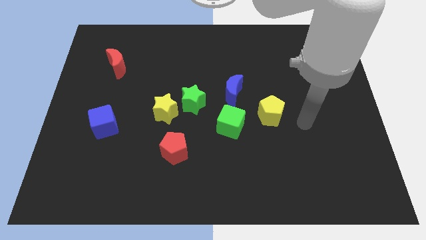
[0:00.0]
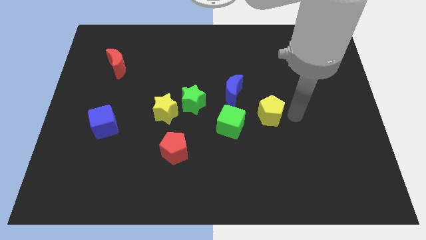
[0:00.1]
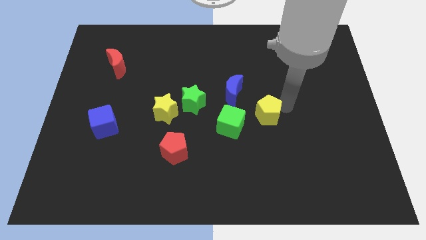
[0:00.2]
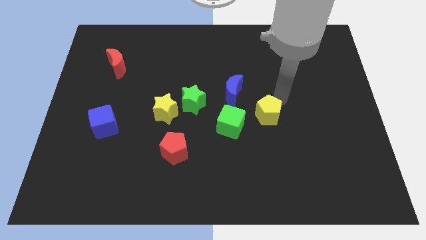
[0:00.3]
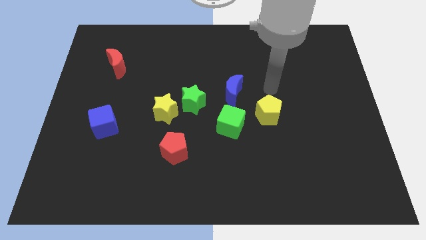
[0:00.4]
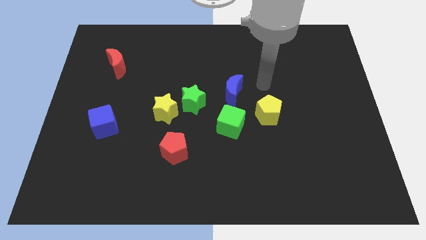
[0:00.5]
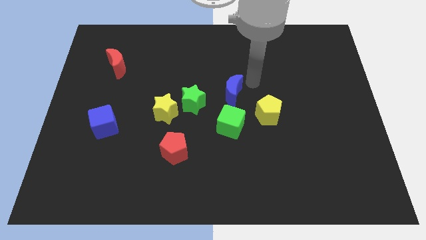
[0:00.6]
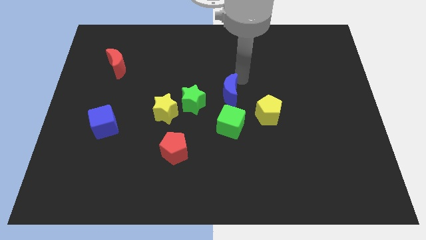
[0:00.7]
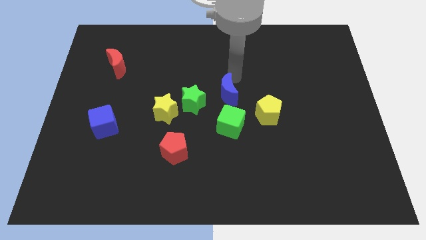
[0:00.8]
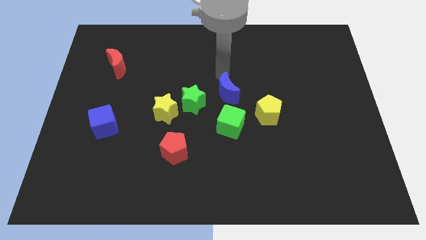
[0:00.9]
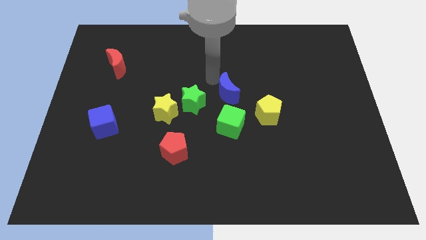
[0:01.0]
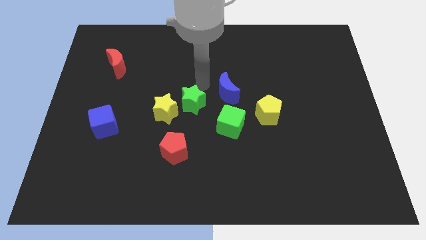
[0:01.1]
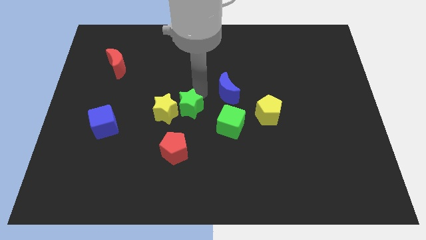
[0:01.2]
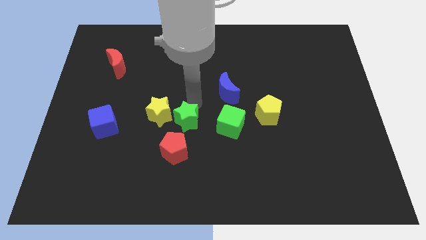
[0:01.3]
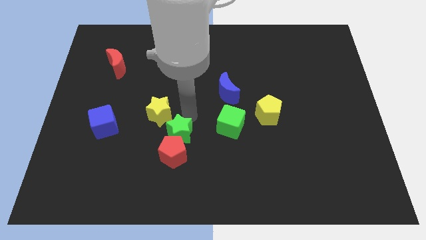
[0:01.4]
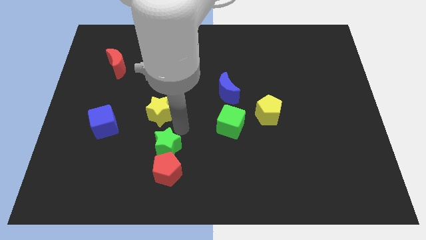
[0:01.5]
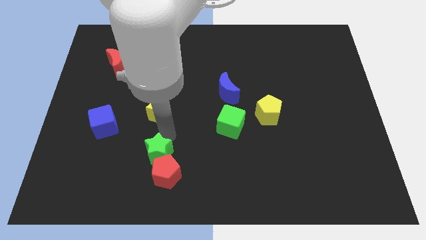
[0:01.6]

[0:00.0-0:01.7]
move the yellow star away from the green star

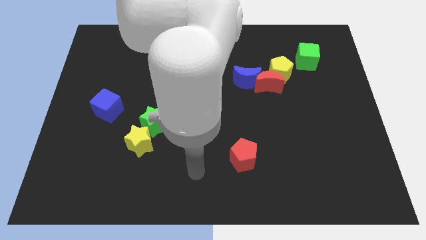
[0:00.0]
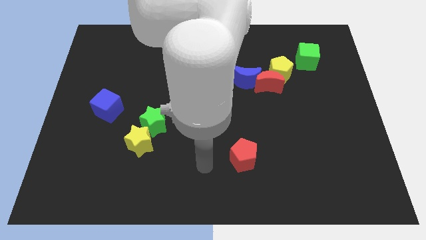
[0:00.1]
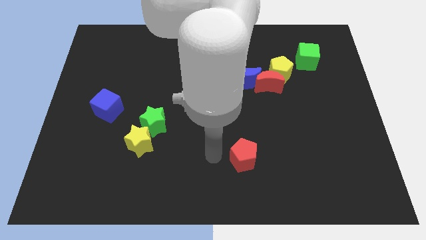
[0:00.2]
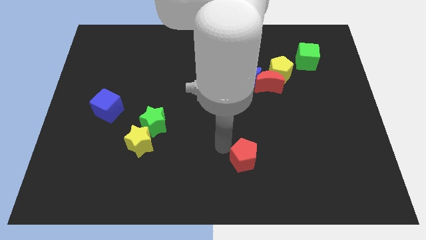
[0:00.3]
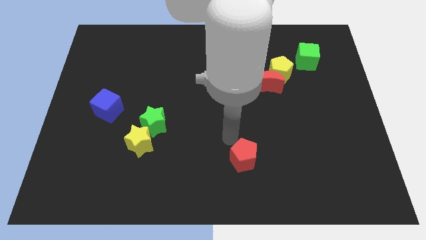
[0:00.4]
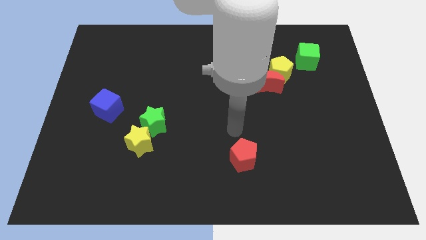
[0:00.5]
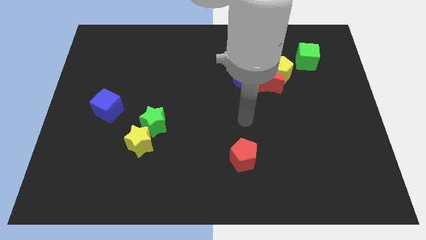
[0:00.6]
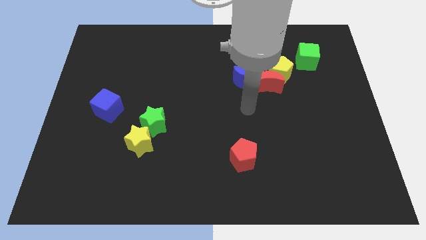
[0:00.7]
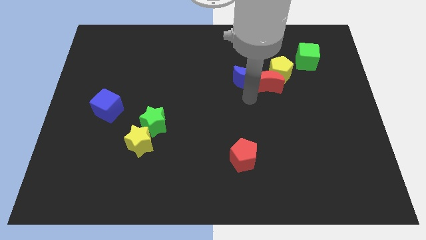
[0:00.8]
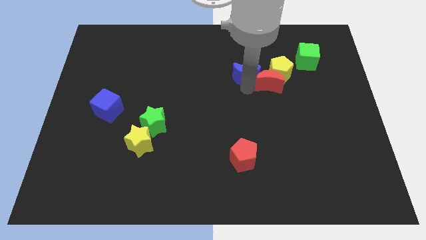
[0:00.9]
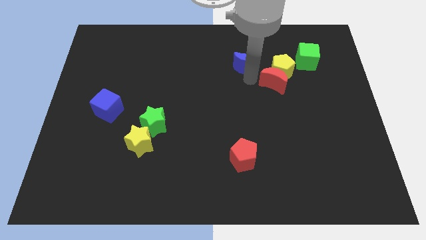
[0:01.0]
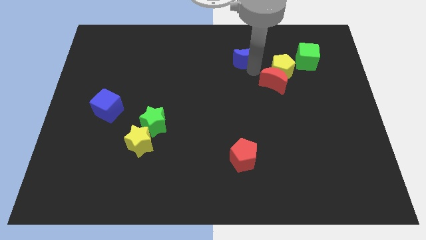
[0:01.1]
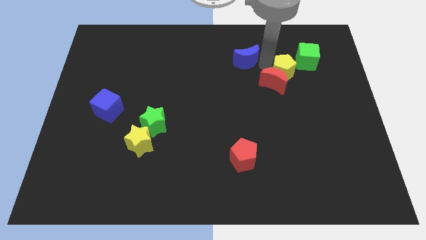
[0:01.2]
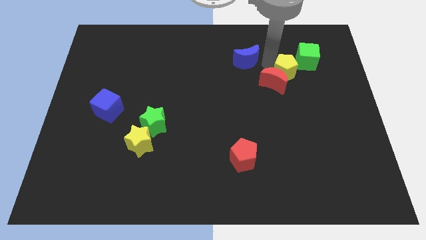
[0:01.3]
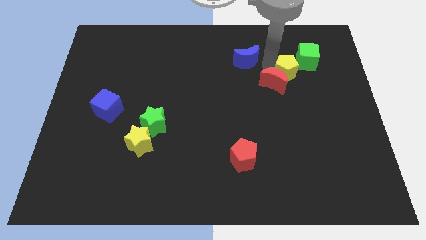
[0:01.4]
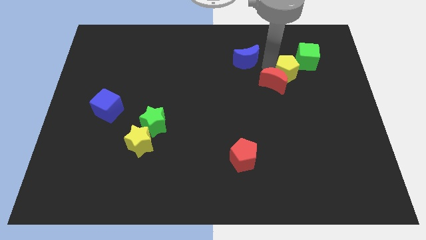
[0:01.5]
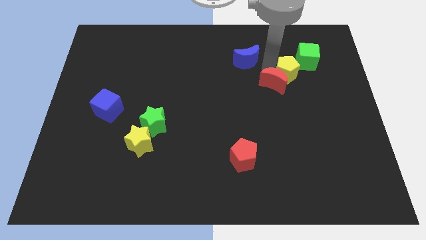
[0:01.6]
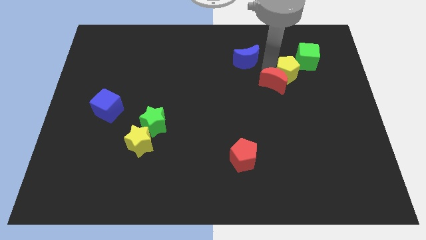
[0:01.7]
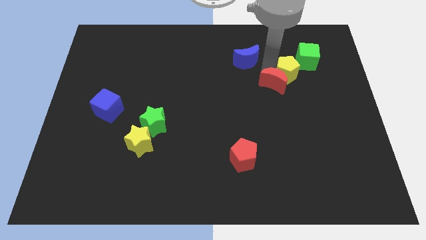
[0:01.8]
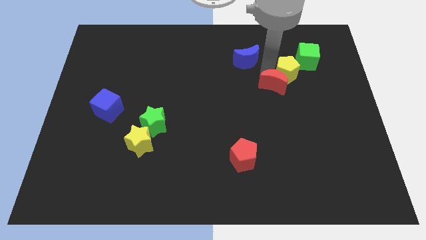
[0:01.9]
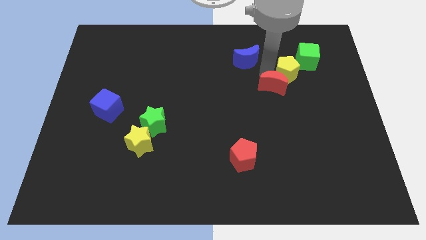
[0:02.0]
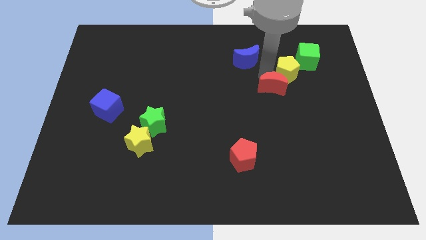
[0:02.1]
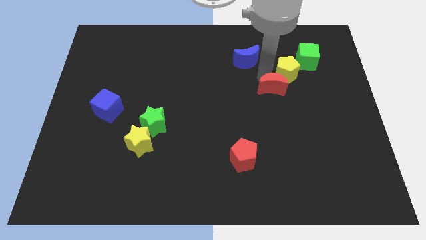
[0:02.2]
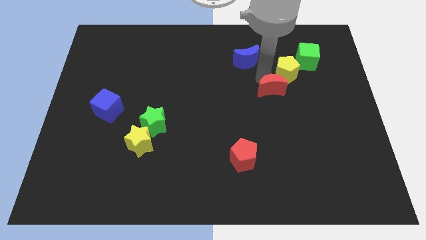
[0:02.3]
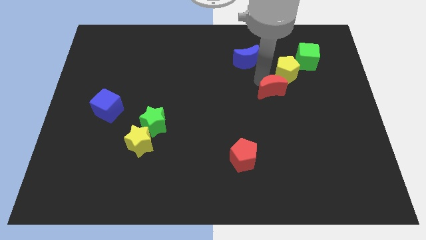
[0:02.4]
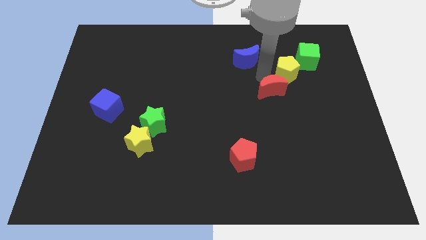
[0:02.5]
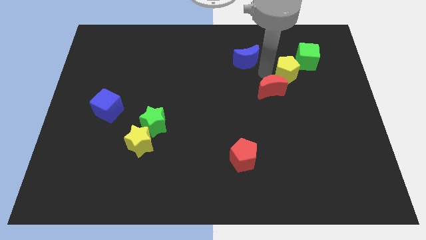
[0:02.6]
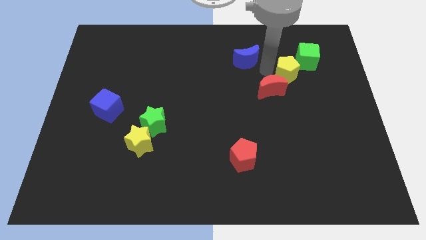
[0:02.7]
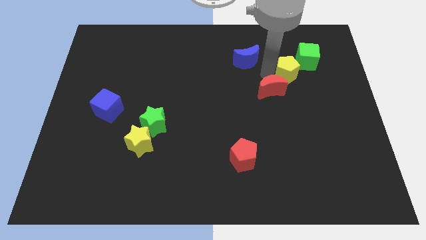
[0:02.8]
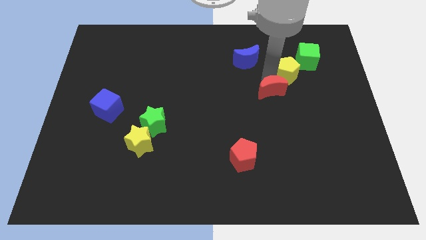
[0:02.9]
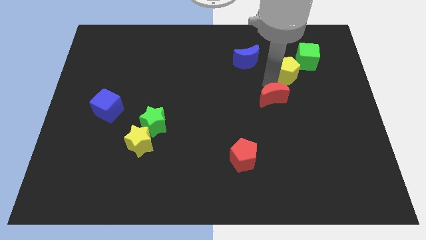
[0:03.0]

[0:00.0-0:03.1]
separate the red moon from the yellow pentagon and blue moon

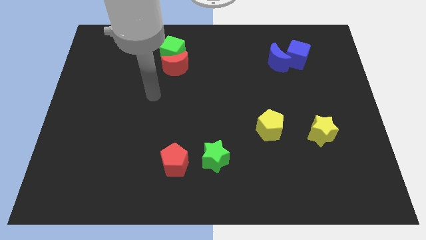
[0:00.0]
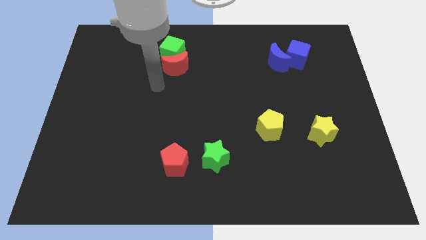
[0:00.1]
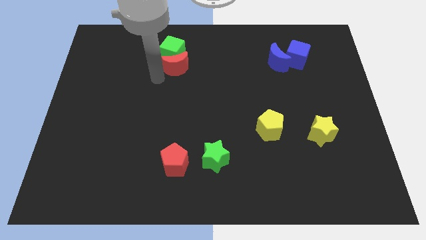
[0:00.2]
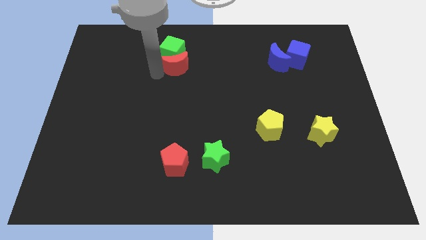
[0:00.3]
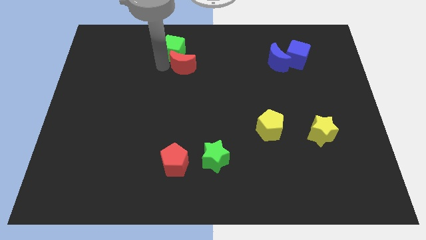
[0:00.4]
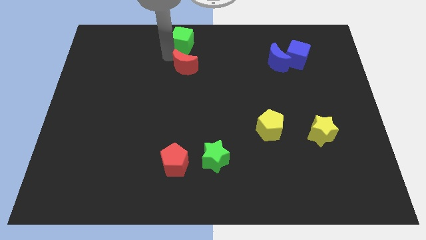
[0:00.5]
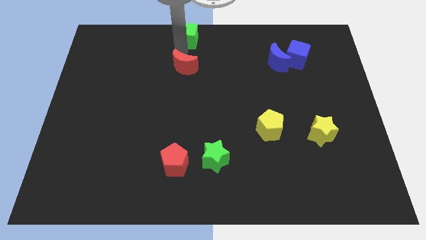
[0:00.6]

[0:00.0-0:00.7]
separate the red moon from the green cube

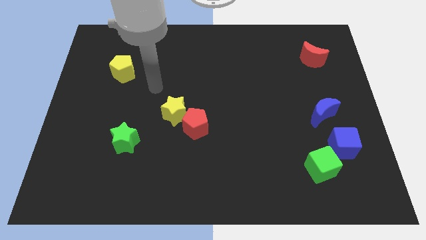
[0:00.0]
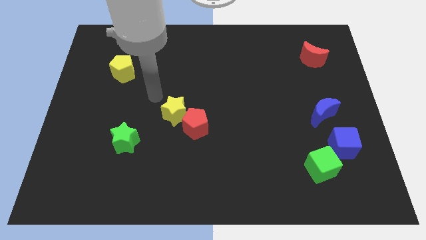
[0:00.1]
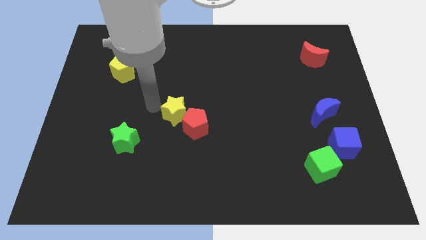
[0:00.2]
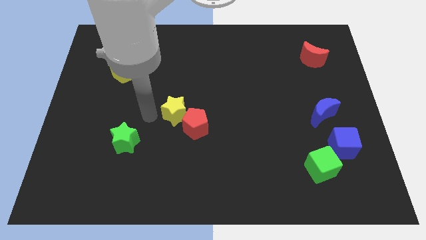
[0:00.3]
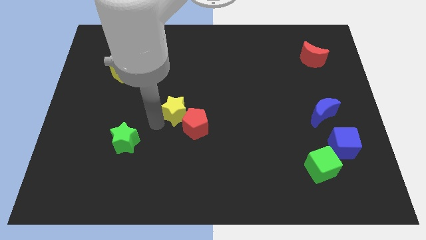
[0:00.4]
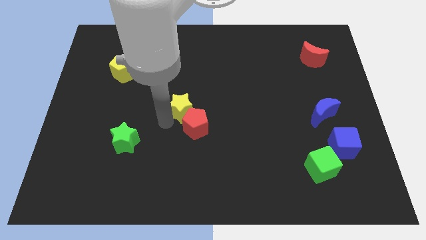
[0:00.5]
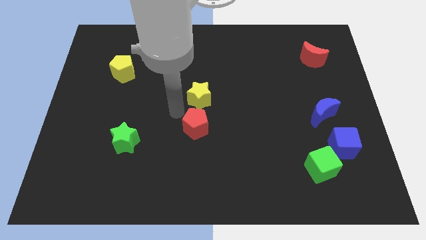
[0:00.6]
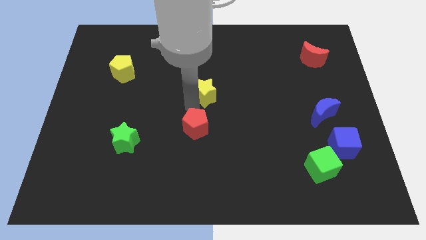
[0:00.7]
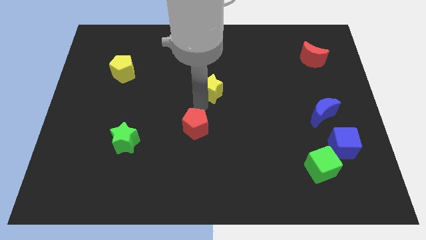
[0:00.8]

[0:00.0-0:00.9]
pull the red pentagon apart from the yellow star

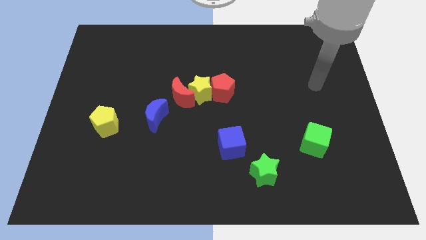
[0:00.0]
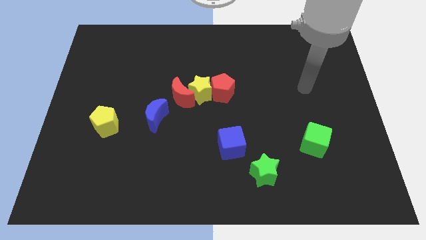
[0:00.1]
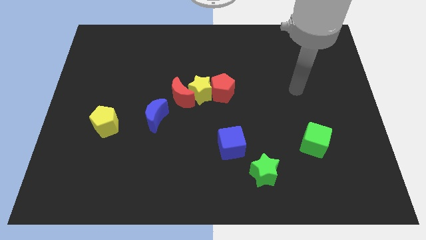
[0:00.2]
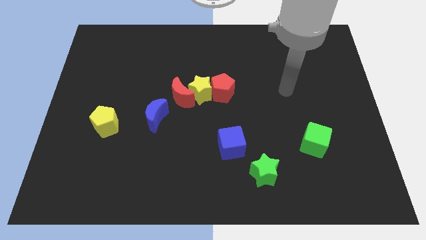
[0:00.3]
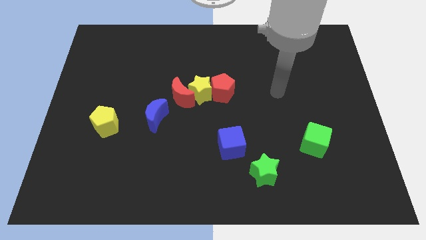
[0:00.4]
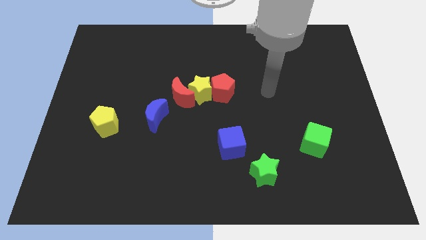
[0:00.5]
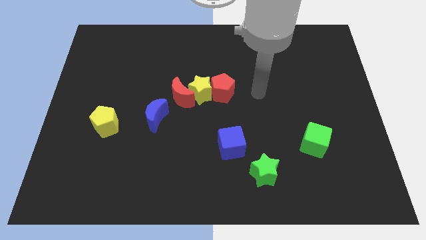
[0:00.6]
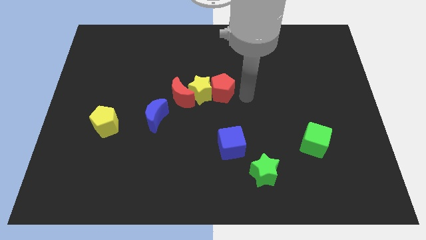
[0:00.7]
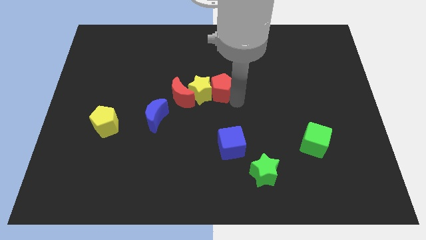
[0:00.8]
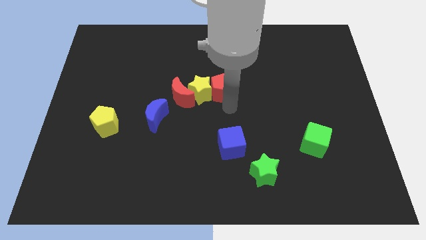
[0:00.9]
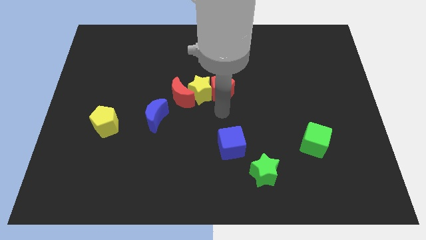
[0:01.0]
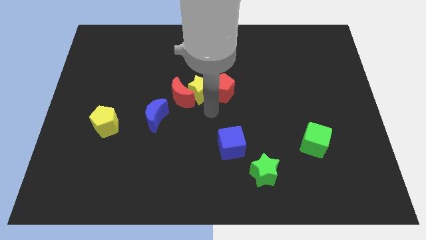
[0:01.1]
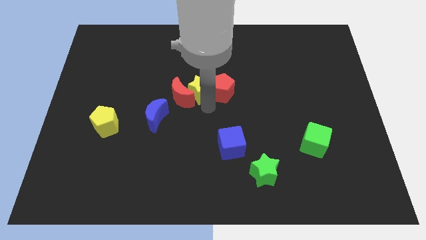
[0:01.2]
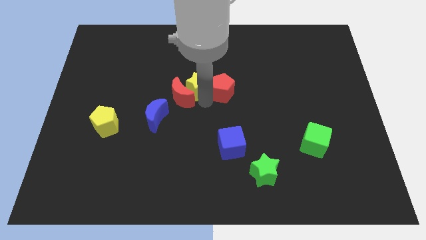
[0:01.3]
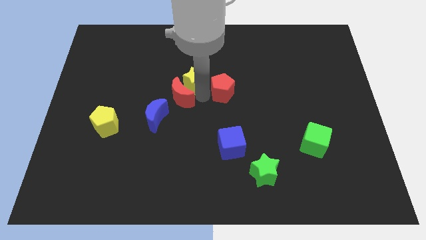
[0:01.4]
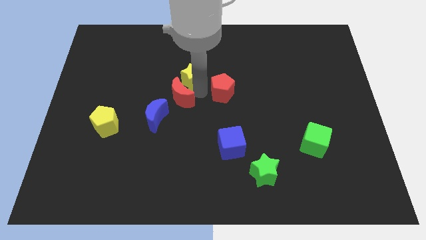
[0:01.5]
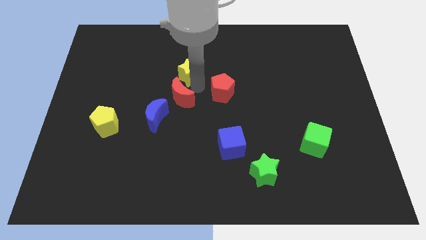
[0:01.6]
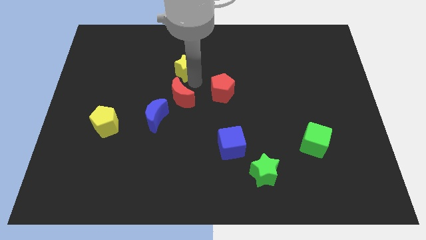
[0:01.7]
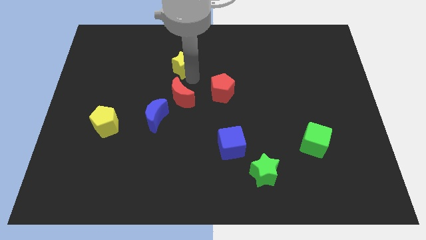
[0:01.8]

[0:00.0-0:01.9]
move the yellow star away from the red moon and red pentagon

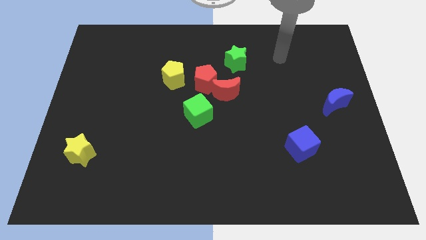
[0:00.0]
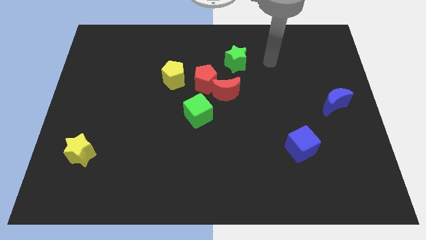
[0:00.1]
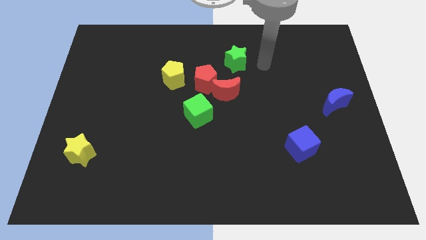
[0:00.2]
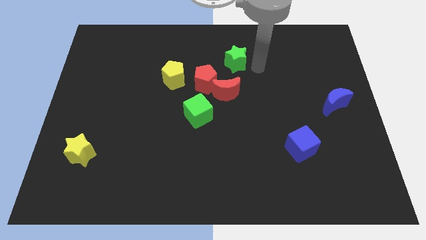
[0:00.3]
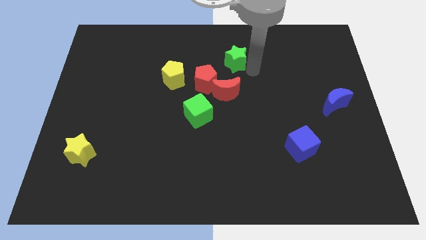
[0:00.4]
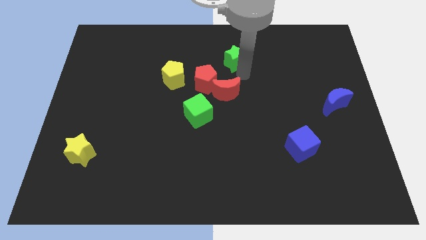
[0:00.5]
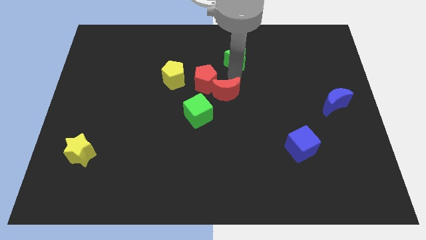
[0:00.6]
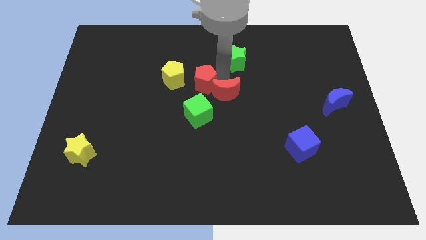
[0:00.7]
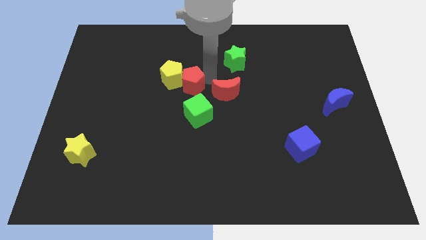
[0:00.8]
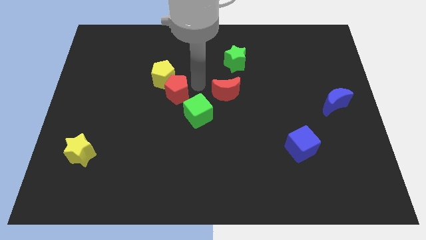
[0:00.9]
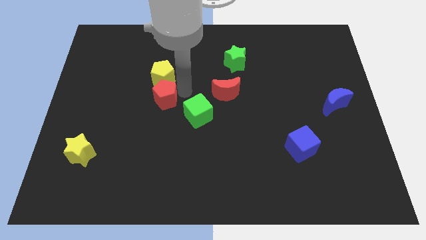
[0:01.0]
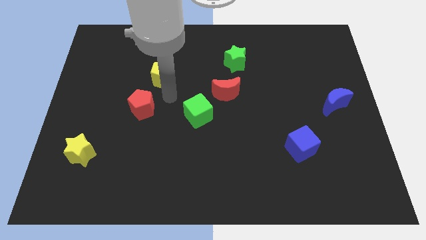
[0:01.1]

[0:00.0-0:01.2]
pull the yellow pentagon apart from the red pentagon
